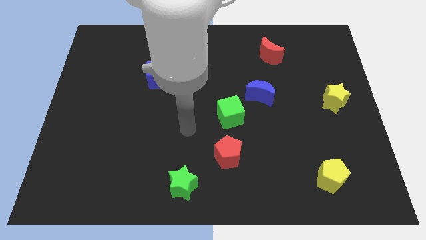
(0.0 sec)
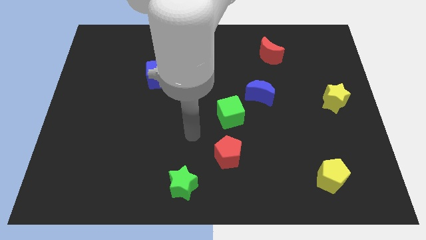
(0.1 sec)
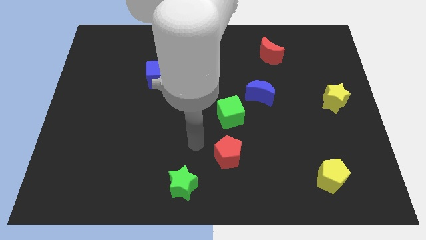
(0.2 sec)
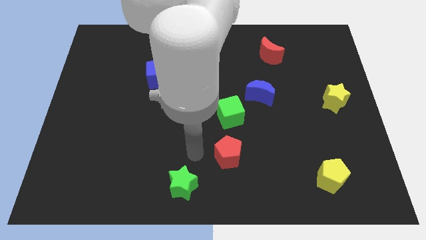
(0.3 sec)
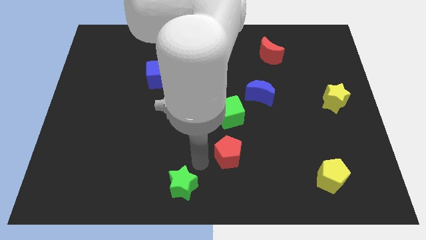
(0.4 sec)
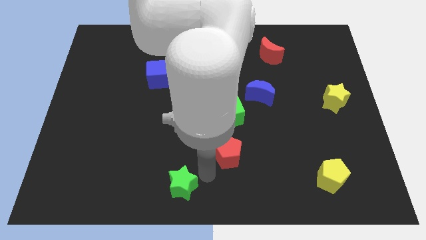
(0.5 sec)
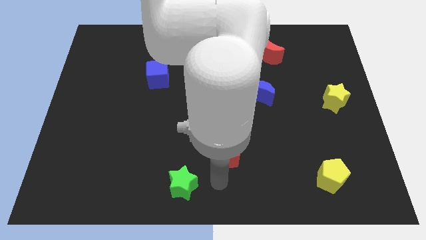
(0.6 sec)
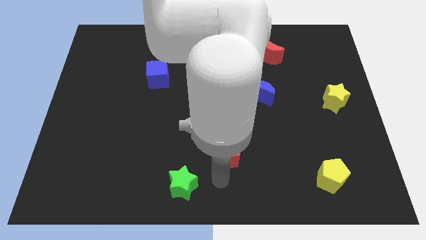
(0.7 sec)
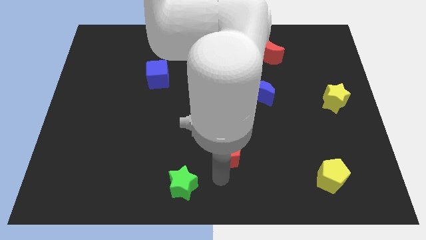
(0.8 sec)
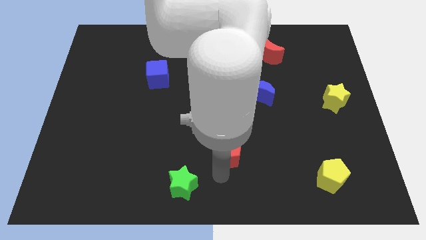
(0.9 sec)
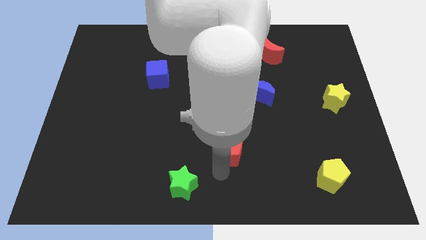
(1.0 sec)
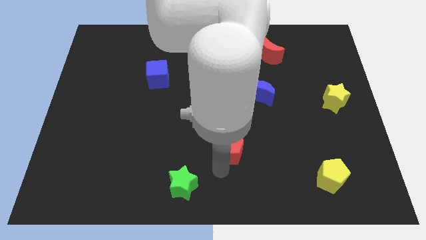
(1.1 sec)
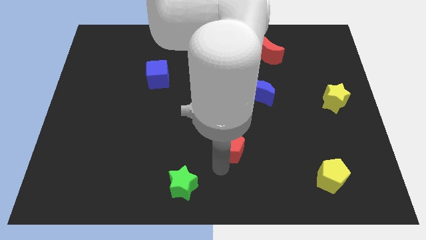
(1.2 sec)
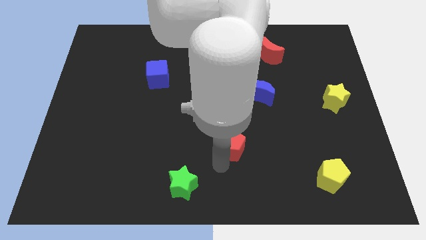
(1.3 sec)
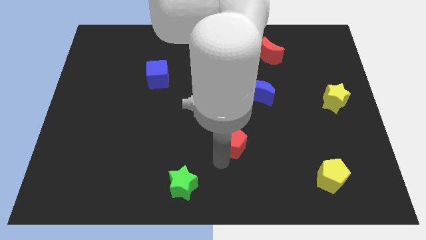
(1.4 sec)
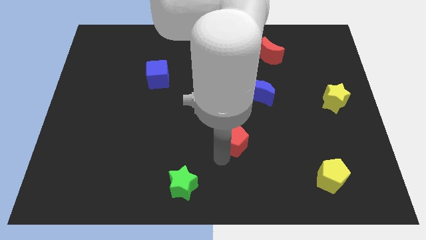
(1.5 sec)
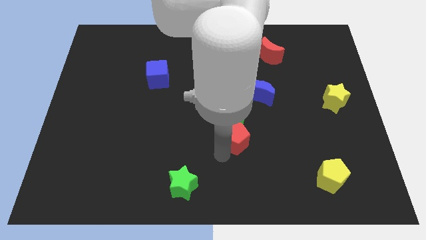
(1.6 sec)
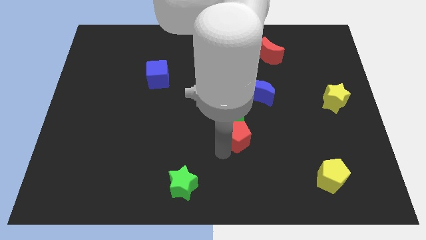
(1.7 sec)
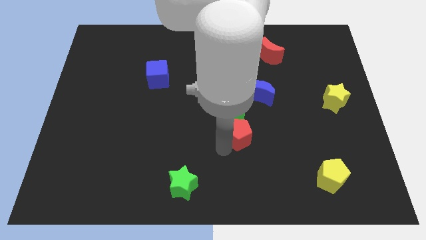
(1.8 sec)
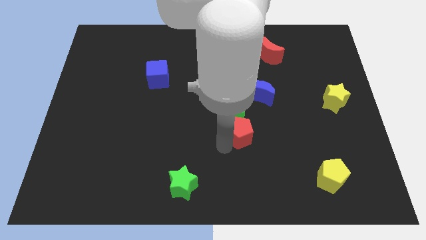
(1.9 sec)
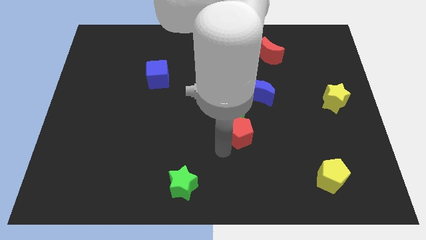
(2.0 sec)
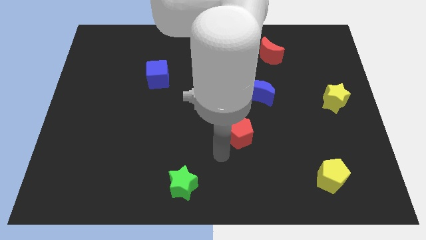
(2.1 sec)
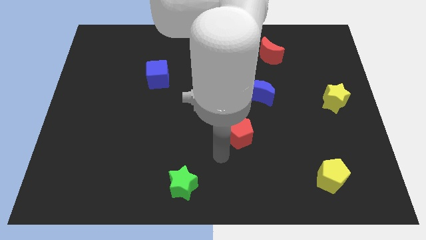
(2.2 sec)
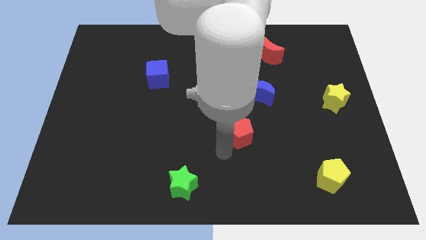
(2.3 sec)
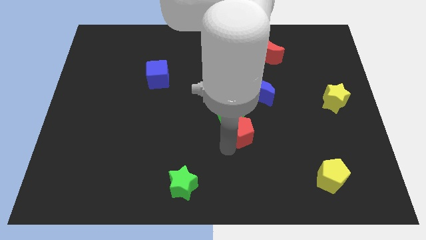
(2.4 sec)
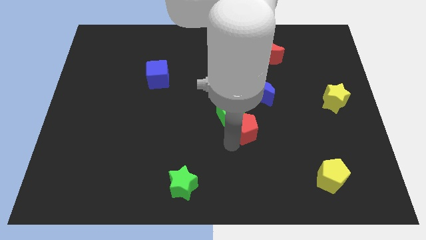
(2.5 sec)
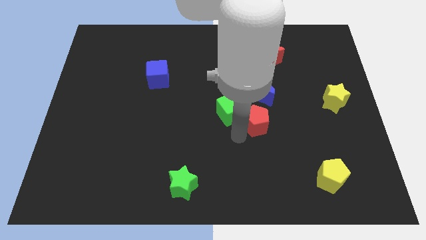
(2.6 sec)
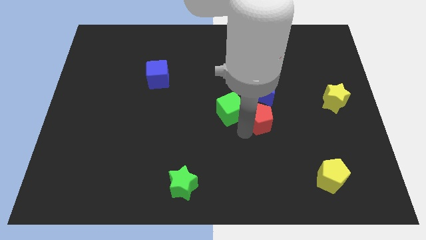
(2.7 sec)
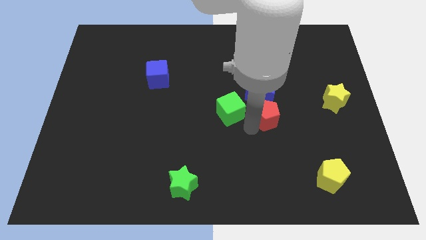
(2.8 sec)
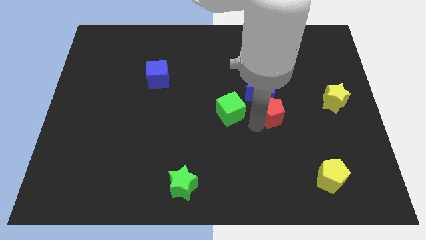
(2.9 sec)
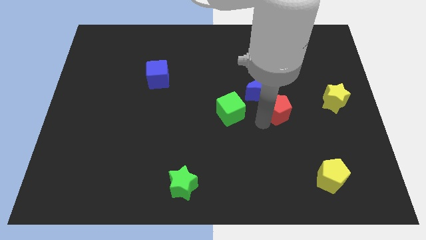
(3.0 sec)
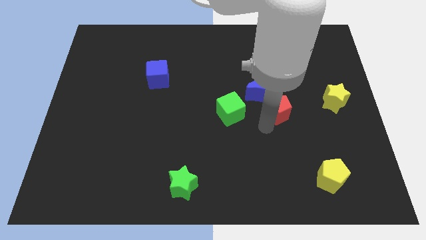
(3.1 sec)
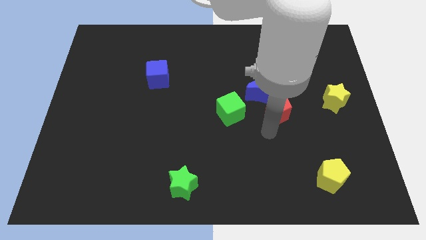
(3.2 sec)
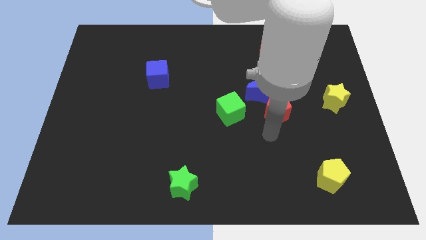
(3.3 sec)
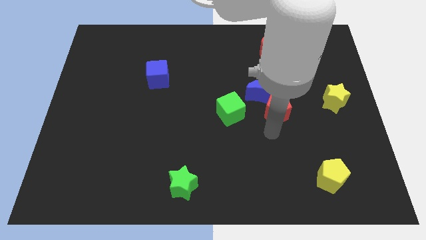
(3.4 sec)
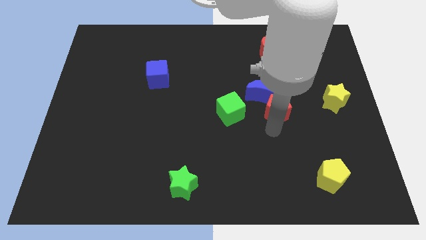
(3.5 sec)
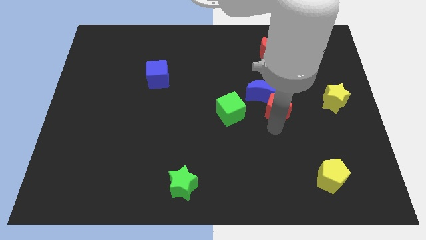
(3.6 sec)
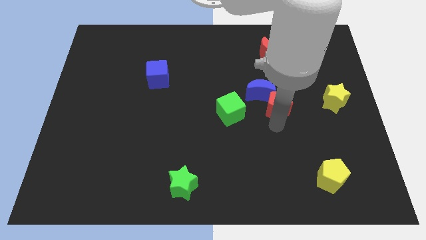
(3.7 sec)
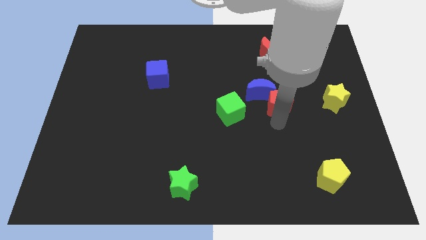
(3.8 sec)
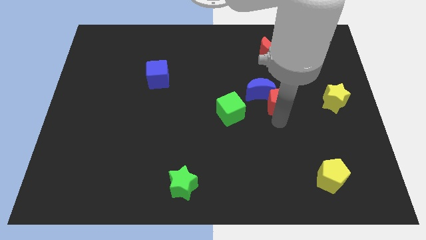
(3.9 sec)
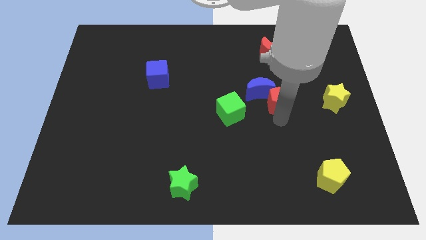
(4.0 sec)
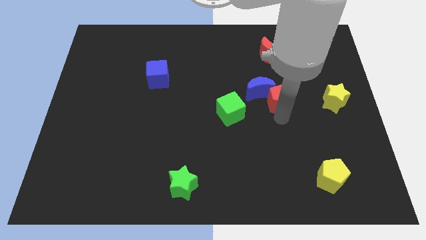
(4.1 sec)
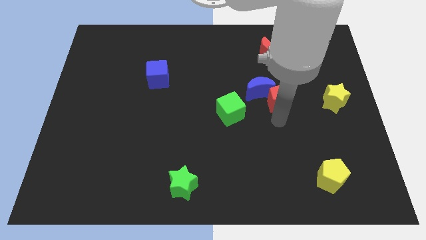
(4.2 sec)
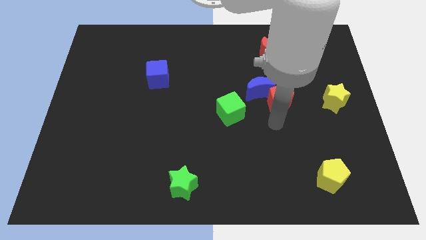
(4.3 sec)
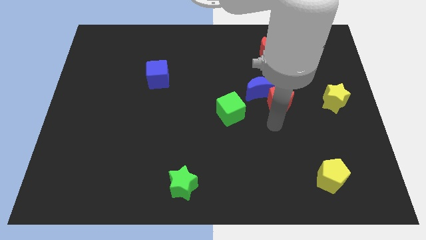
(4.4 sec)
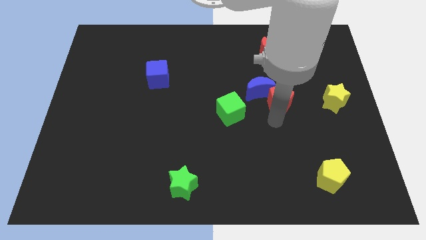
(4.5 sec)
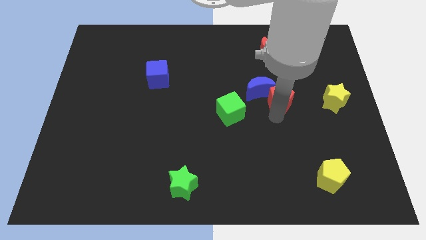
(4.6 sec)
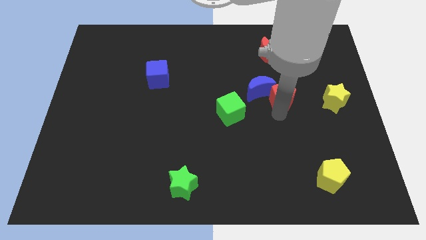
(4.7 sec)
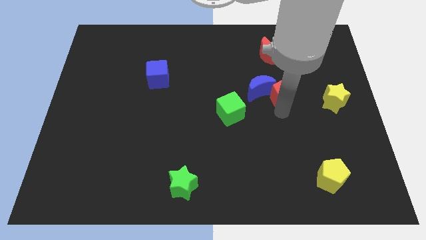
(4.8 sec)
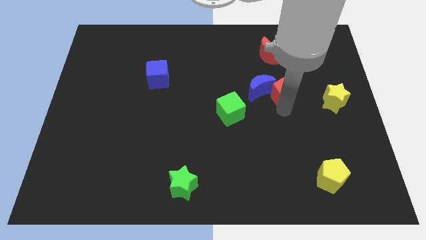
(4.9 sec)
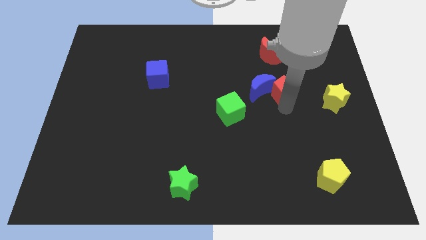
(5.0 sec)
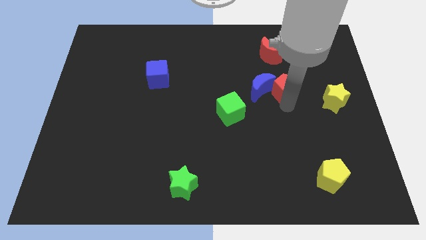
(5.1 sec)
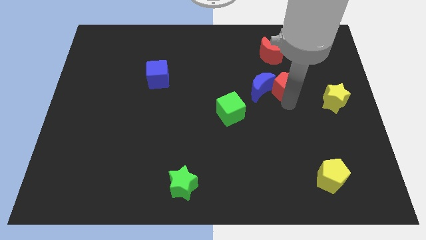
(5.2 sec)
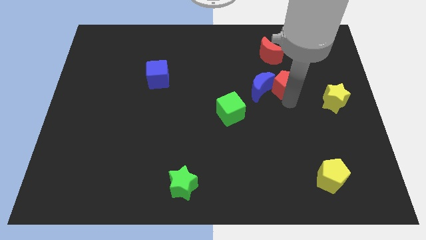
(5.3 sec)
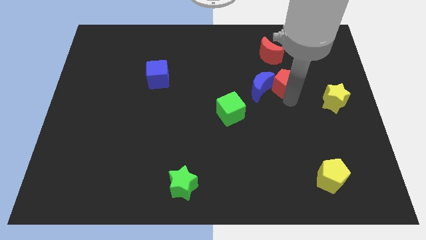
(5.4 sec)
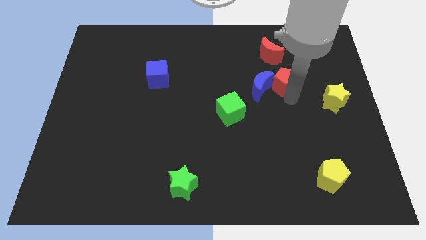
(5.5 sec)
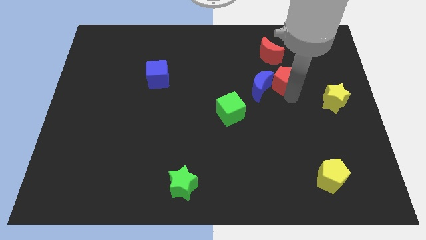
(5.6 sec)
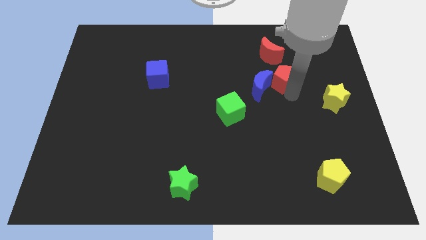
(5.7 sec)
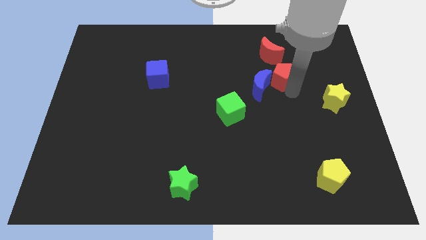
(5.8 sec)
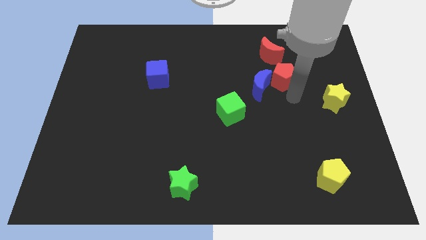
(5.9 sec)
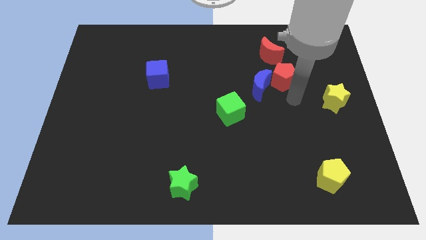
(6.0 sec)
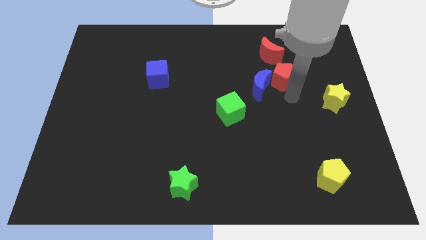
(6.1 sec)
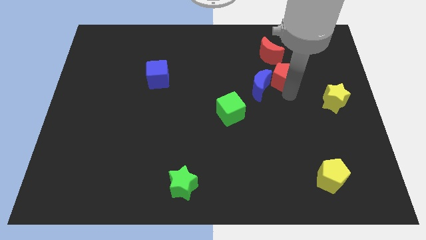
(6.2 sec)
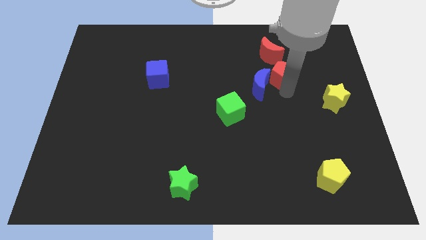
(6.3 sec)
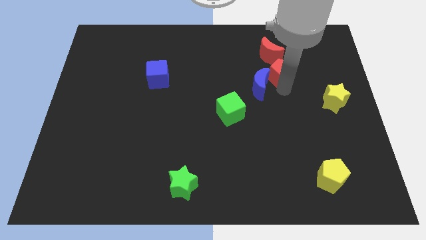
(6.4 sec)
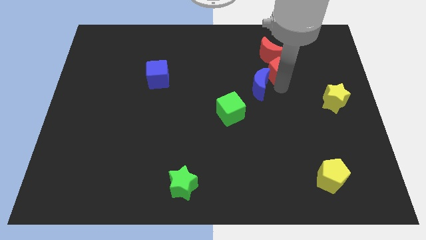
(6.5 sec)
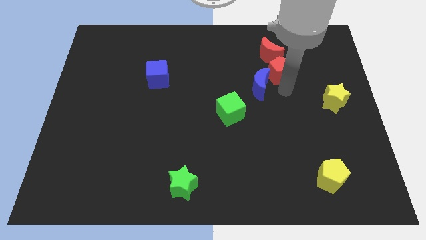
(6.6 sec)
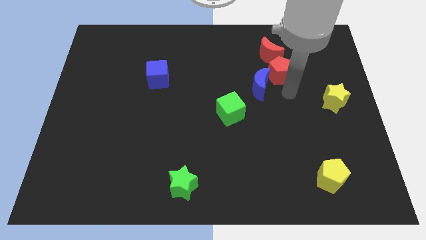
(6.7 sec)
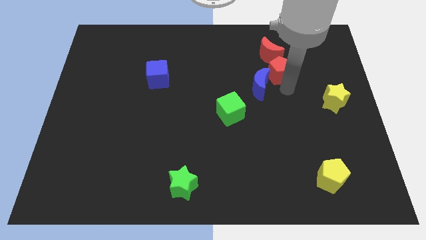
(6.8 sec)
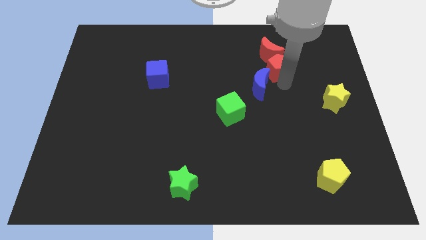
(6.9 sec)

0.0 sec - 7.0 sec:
move the red pentagon next to the red moon
